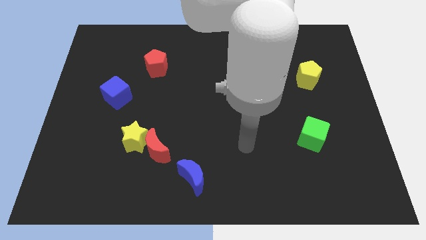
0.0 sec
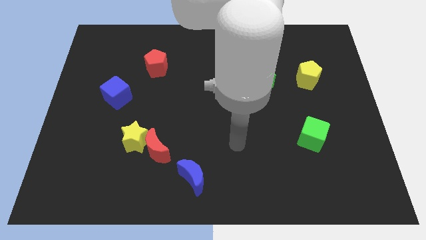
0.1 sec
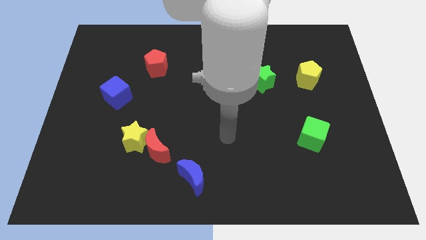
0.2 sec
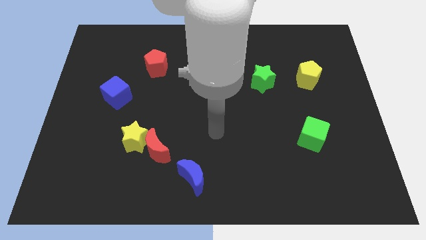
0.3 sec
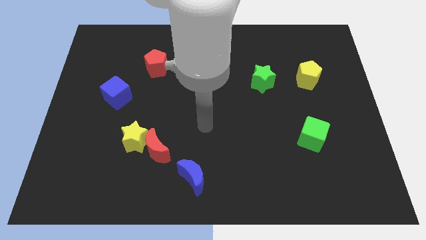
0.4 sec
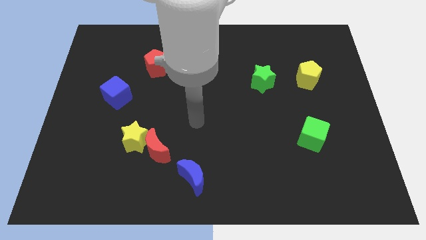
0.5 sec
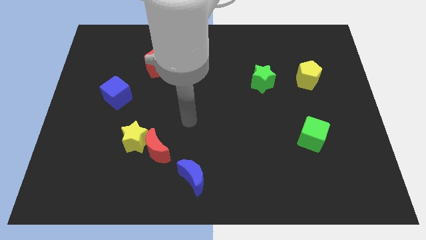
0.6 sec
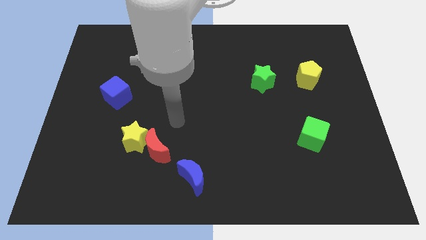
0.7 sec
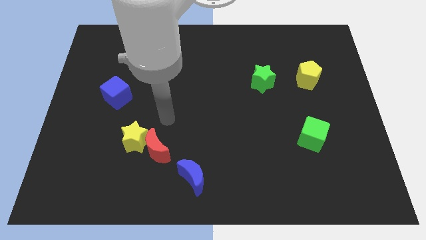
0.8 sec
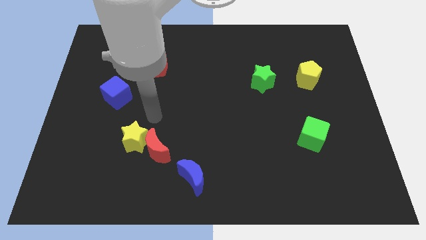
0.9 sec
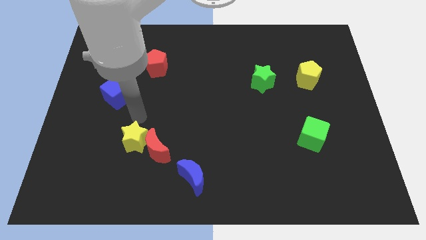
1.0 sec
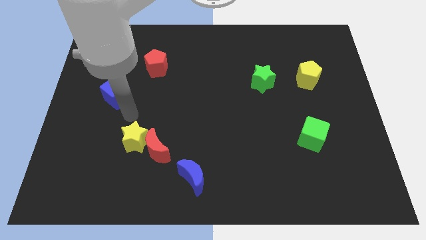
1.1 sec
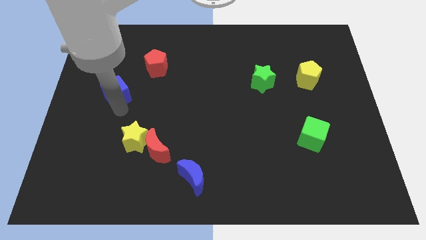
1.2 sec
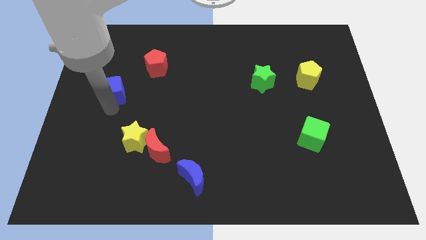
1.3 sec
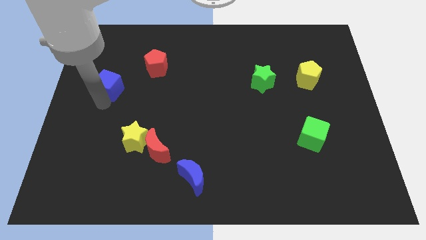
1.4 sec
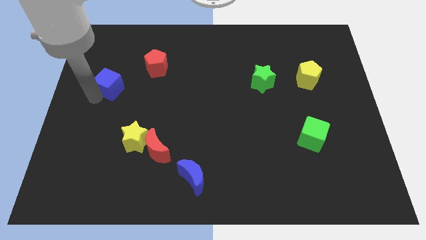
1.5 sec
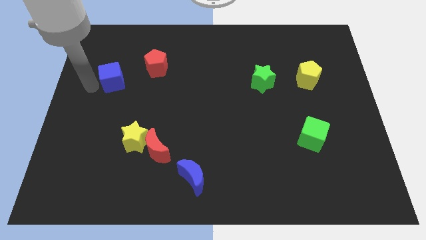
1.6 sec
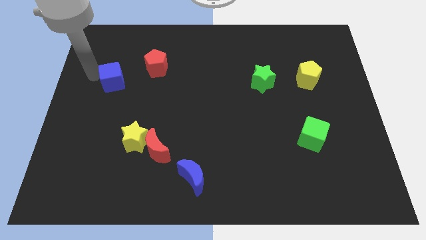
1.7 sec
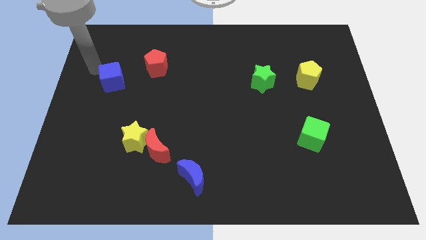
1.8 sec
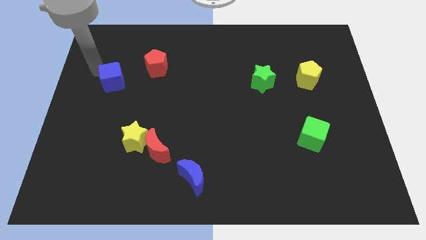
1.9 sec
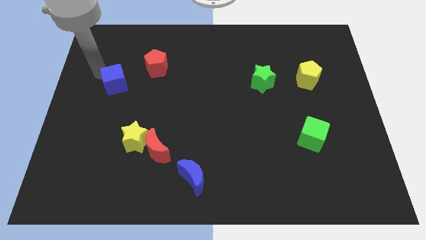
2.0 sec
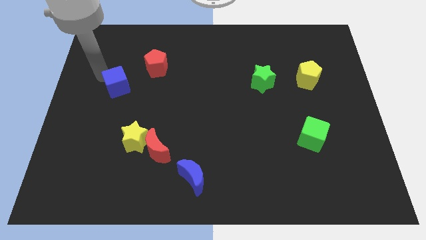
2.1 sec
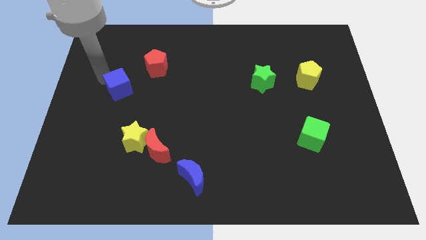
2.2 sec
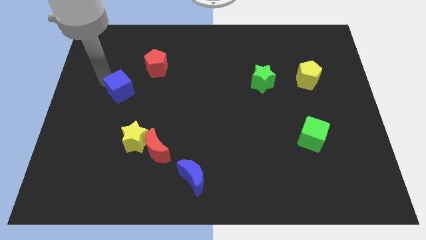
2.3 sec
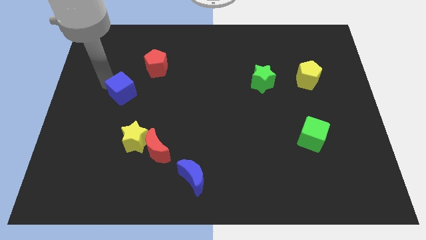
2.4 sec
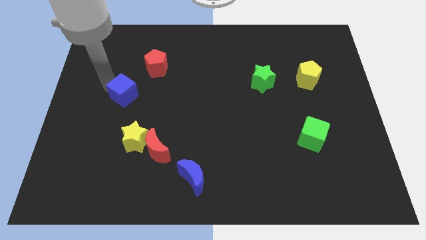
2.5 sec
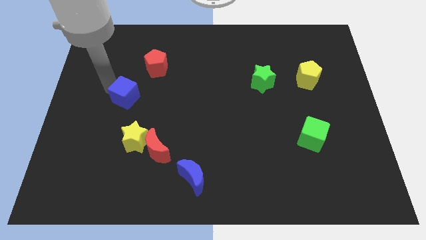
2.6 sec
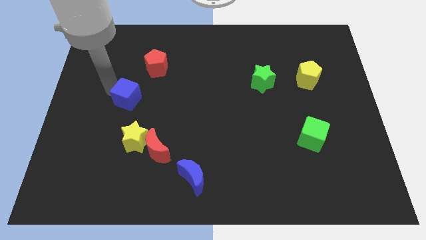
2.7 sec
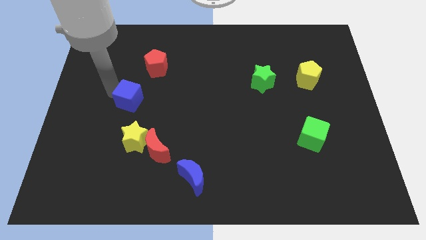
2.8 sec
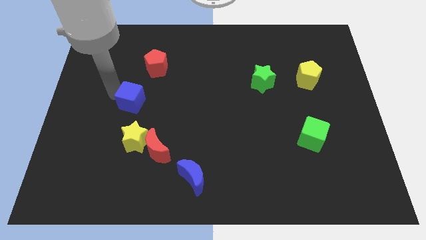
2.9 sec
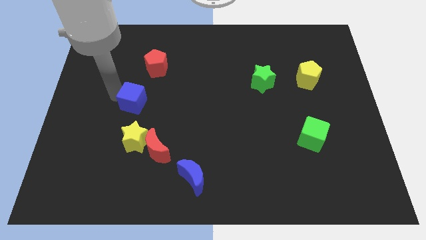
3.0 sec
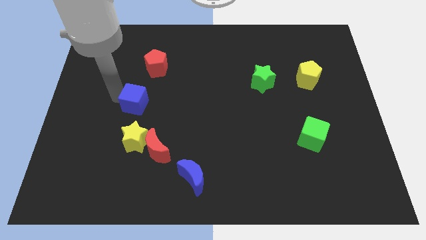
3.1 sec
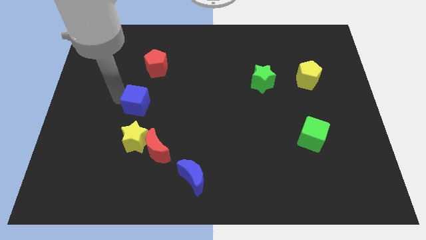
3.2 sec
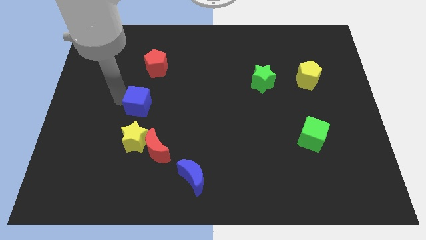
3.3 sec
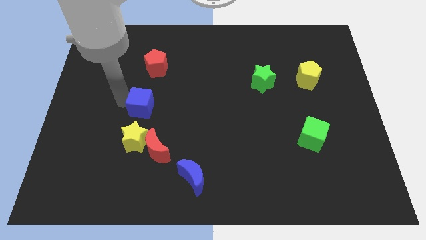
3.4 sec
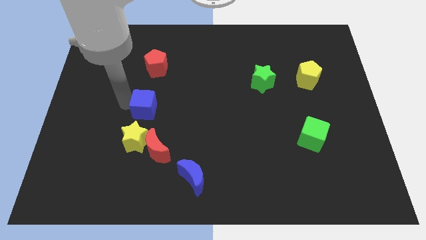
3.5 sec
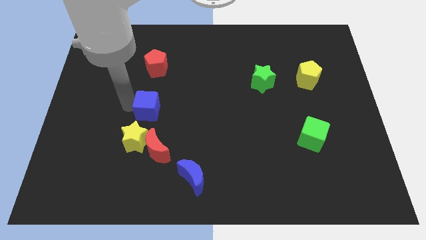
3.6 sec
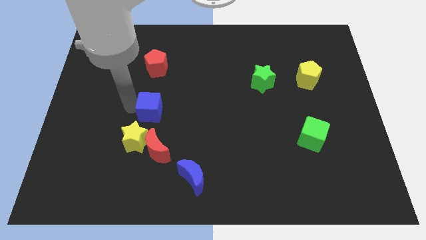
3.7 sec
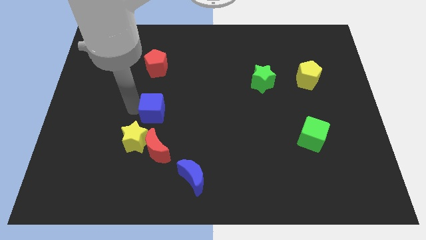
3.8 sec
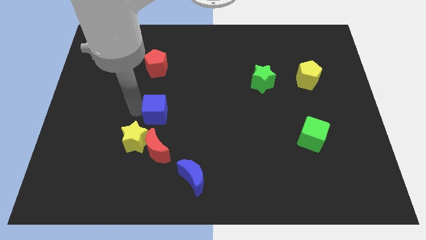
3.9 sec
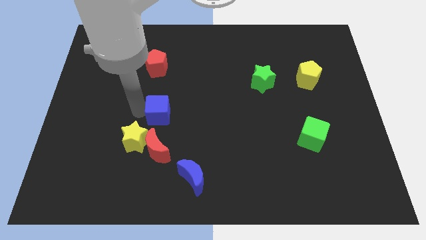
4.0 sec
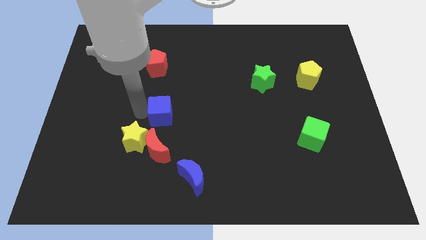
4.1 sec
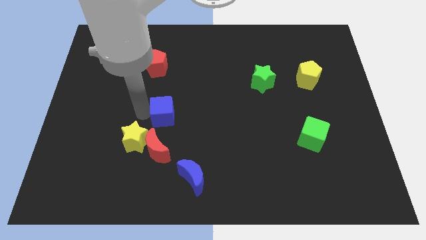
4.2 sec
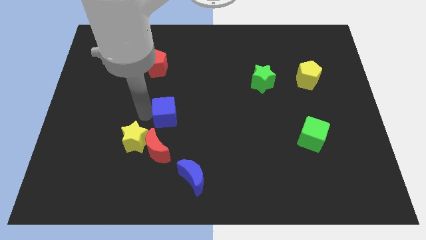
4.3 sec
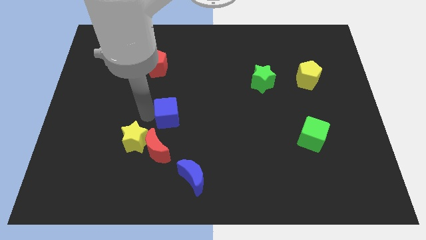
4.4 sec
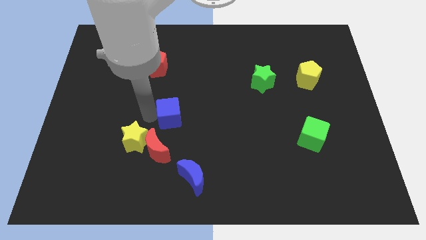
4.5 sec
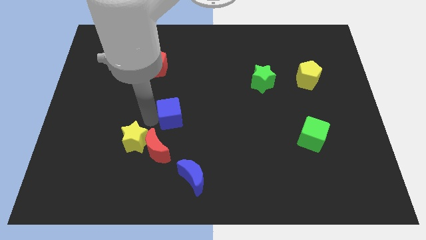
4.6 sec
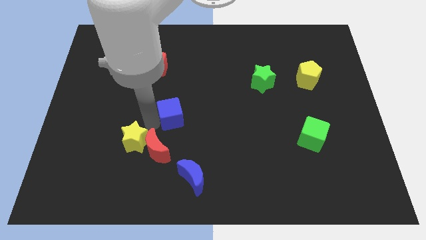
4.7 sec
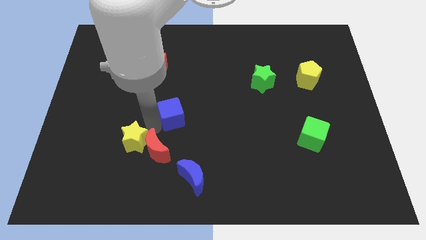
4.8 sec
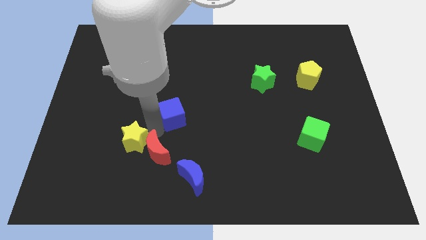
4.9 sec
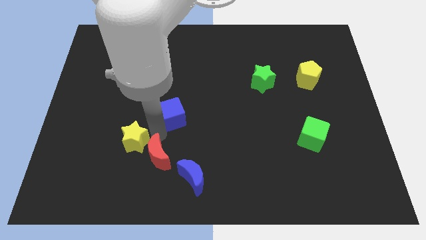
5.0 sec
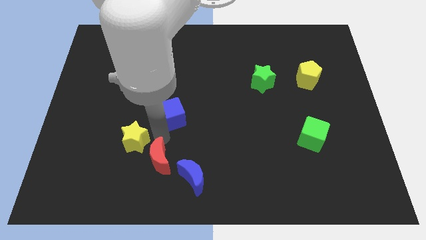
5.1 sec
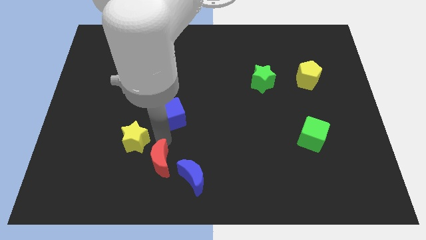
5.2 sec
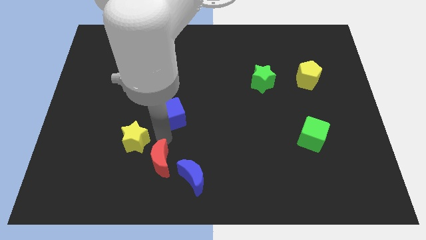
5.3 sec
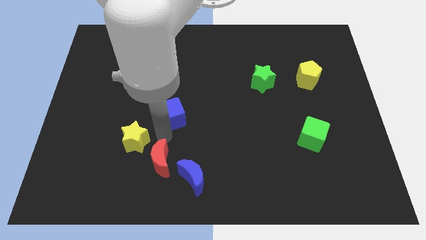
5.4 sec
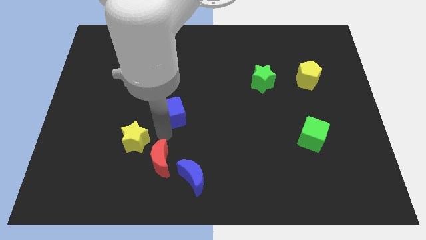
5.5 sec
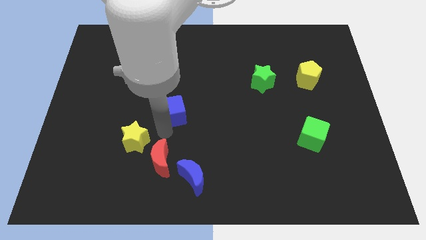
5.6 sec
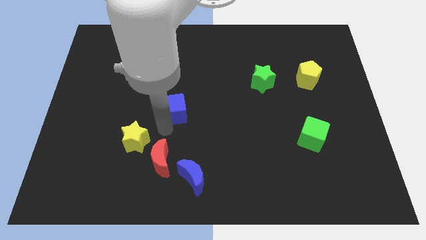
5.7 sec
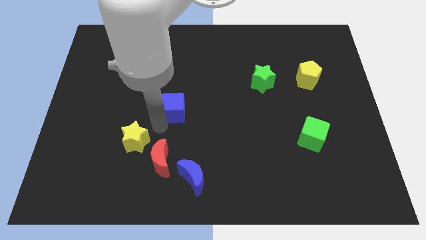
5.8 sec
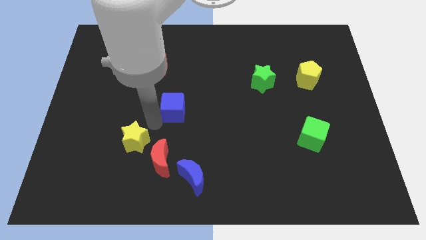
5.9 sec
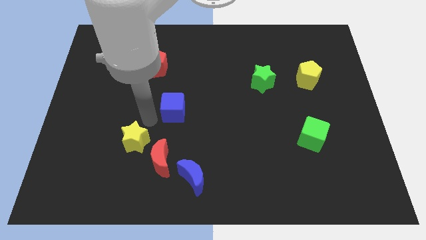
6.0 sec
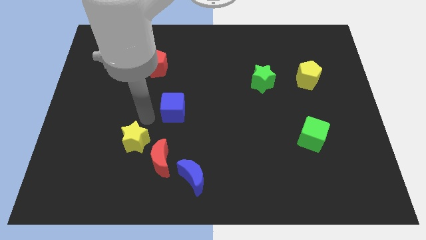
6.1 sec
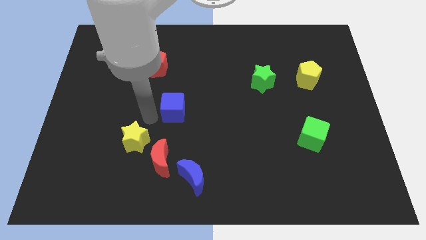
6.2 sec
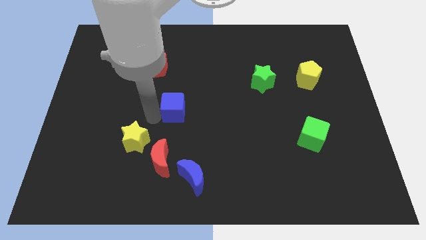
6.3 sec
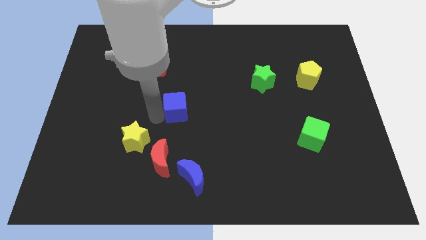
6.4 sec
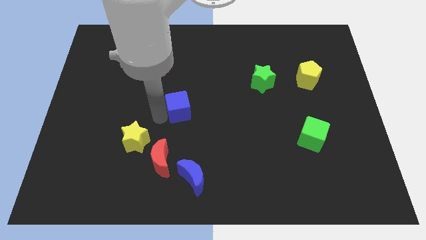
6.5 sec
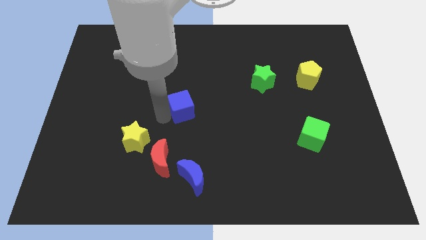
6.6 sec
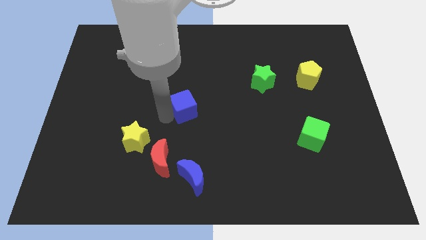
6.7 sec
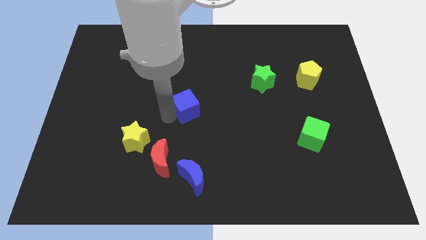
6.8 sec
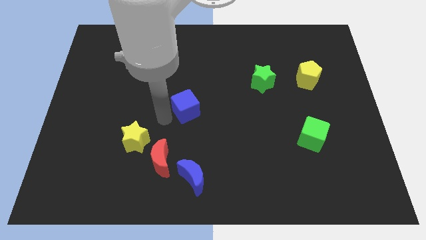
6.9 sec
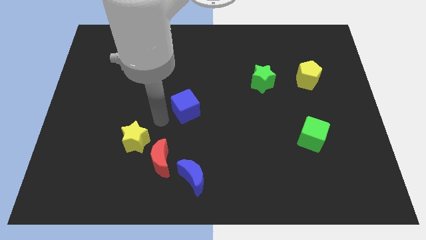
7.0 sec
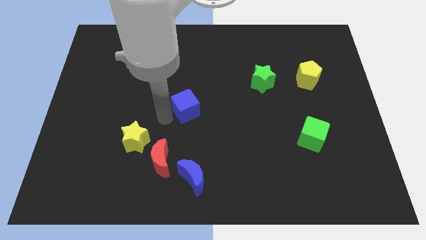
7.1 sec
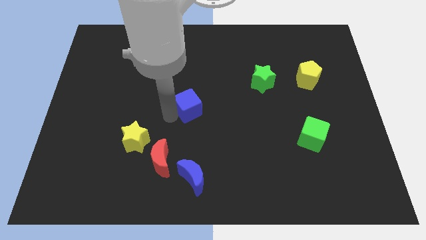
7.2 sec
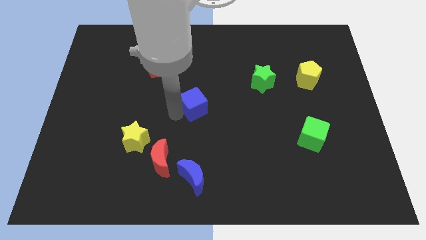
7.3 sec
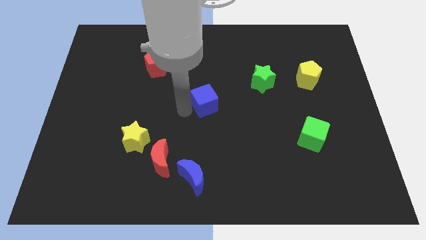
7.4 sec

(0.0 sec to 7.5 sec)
slide the blue cube right

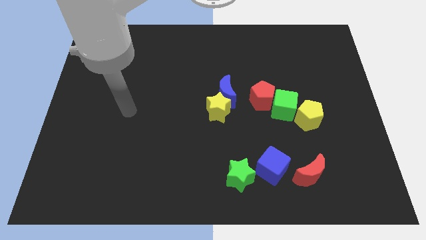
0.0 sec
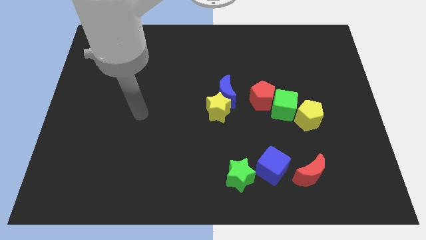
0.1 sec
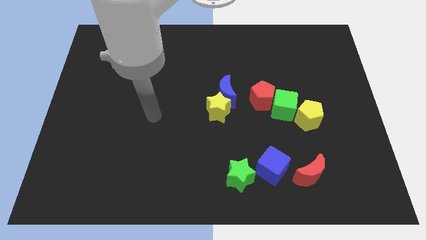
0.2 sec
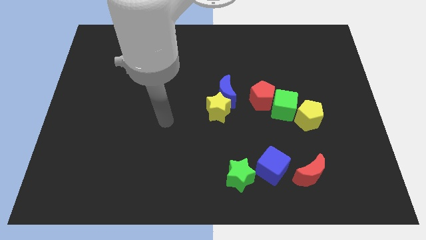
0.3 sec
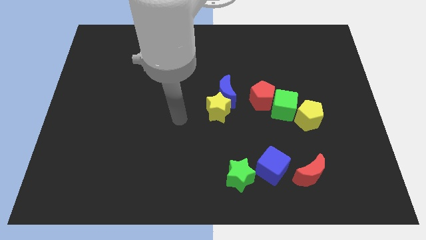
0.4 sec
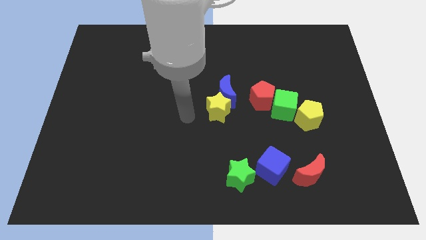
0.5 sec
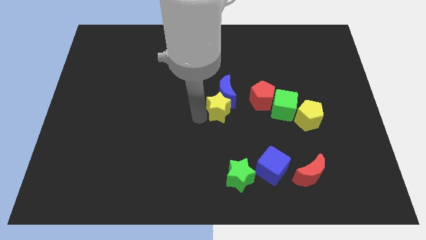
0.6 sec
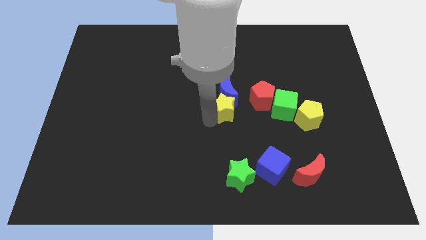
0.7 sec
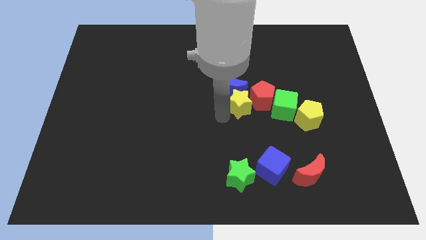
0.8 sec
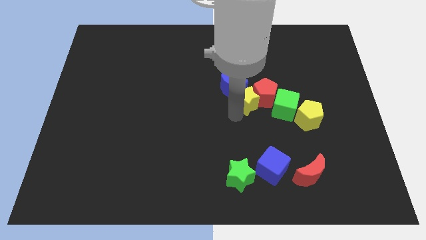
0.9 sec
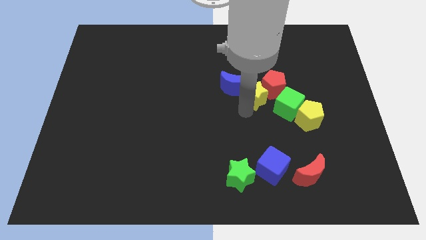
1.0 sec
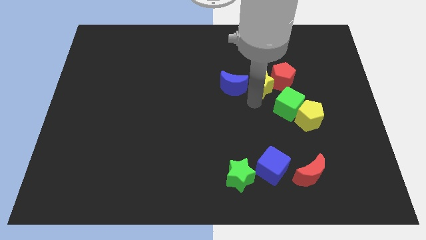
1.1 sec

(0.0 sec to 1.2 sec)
move the red pentagon up and right diagonally a little
